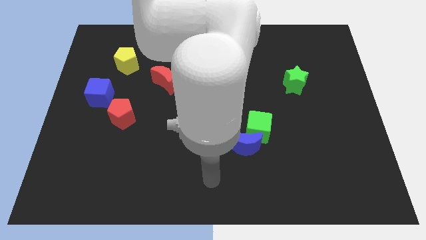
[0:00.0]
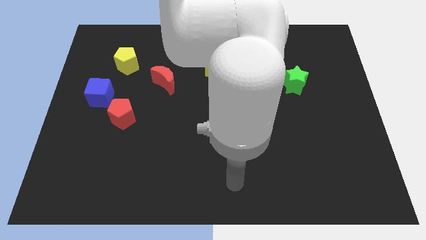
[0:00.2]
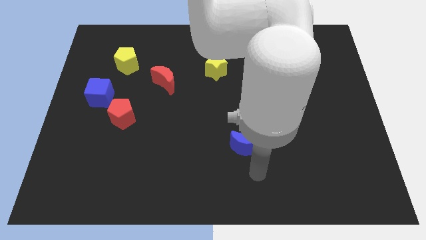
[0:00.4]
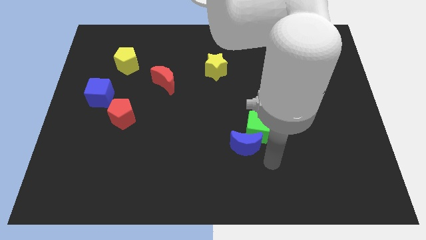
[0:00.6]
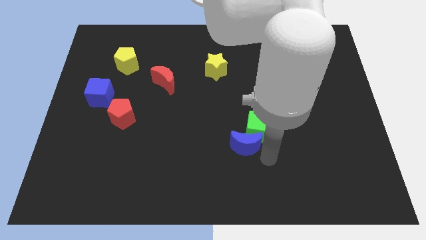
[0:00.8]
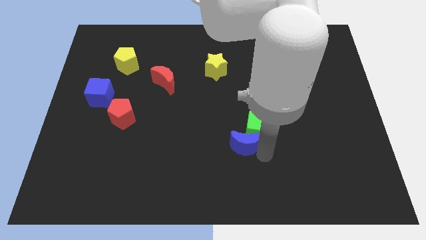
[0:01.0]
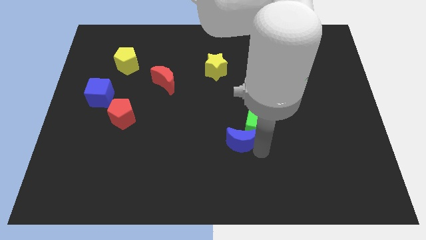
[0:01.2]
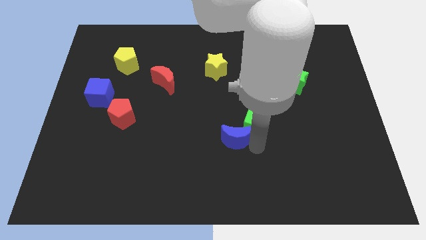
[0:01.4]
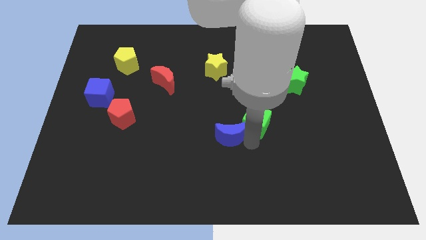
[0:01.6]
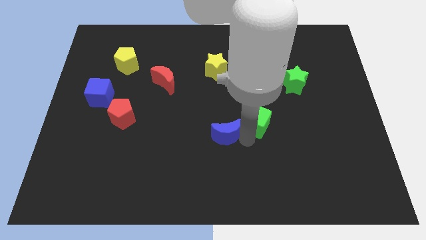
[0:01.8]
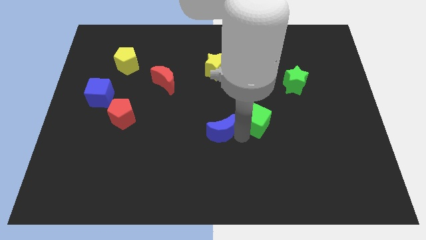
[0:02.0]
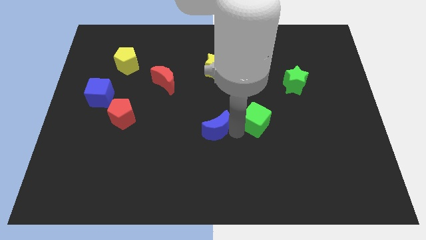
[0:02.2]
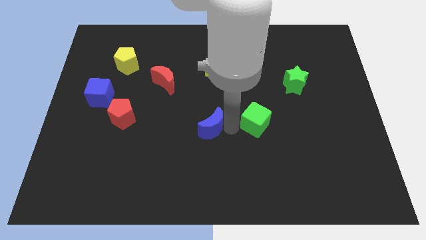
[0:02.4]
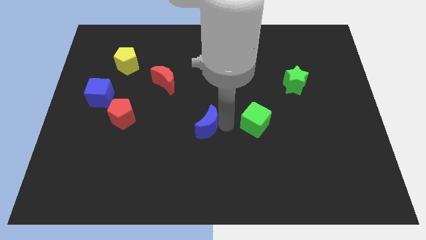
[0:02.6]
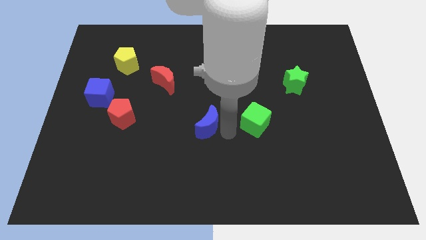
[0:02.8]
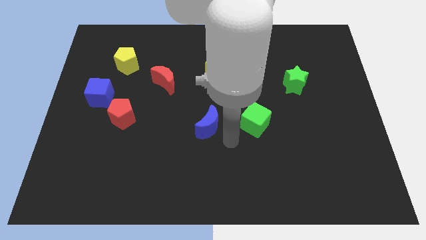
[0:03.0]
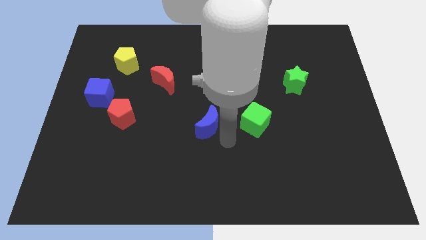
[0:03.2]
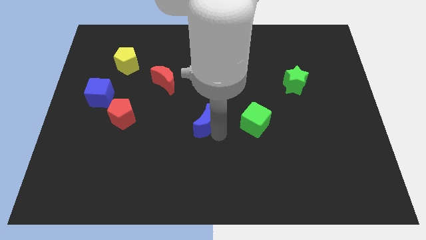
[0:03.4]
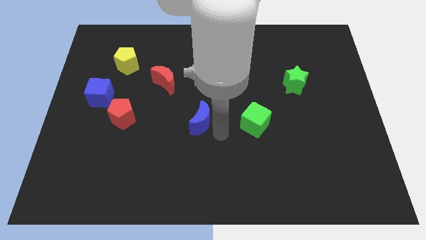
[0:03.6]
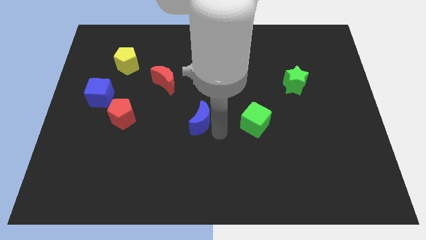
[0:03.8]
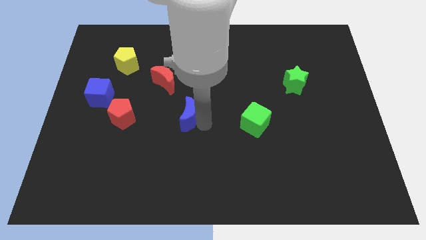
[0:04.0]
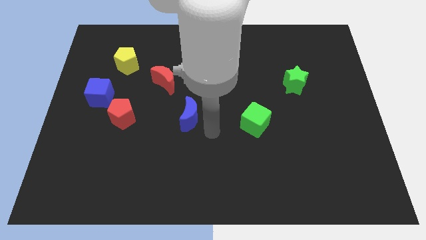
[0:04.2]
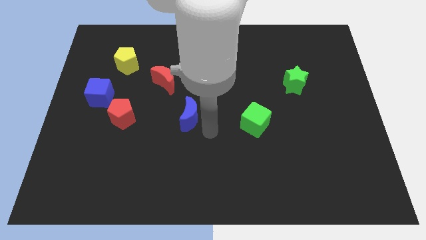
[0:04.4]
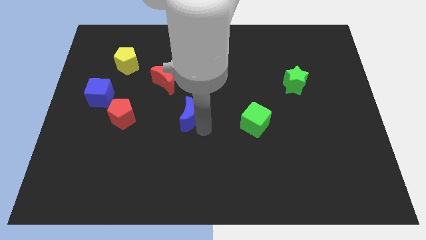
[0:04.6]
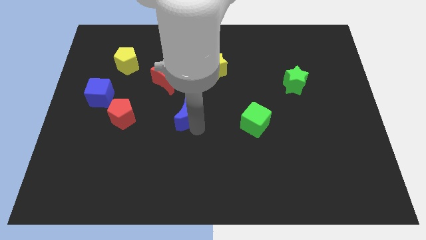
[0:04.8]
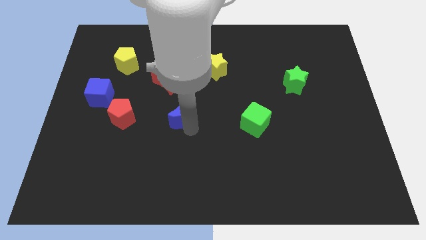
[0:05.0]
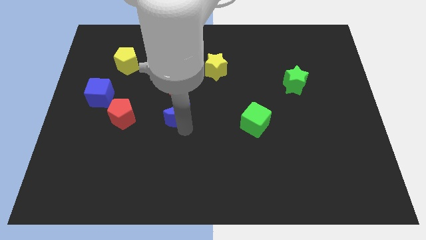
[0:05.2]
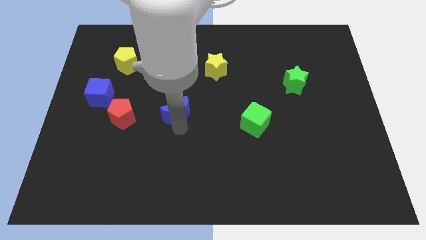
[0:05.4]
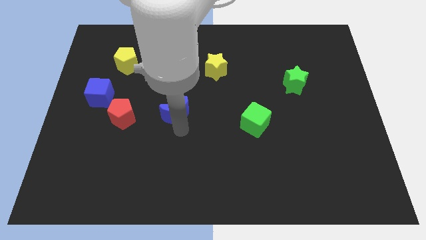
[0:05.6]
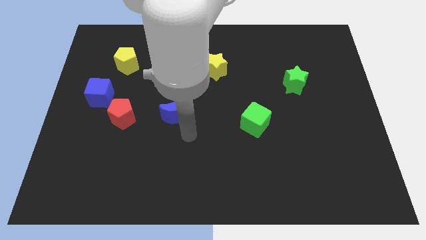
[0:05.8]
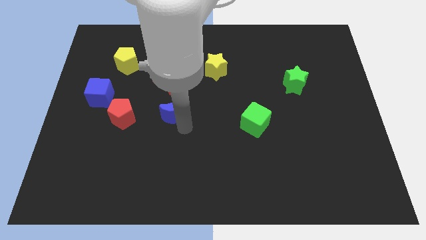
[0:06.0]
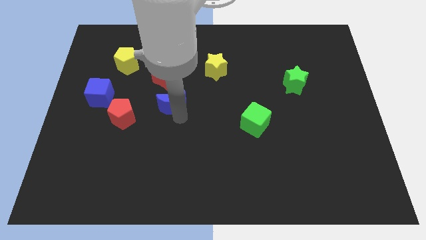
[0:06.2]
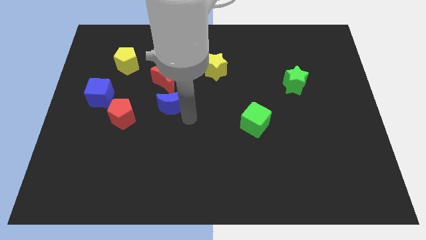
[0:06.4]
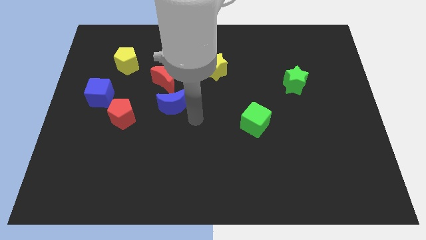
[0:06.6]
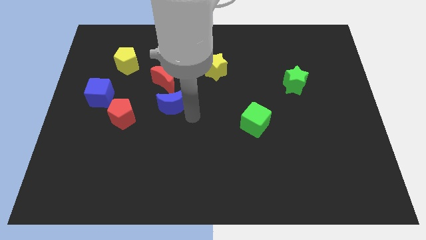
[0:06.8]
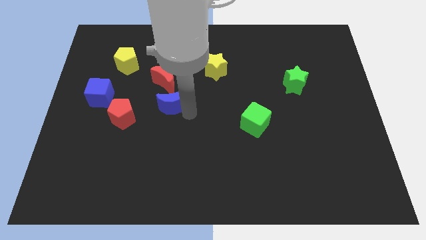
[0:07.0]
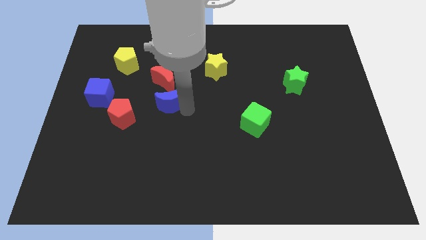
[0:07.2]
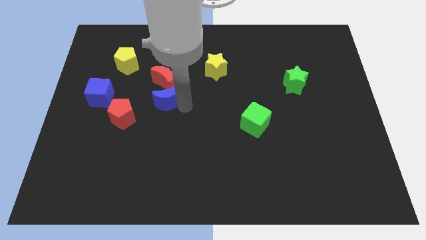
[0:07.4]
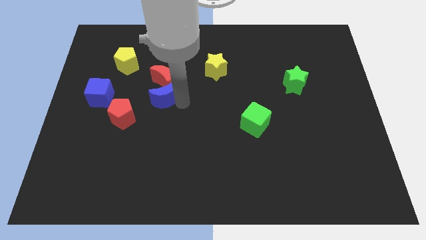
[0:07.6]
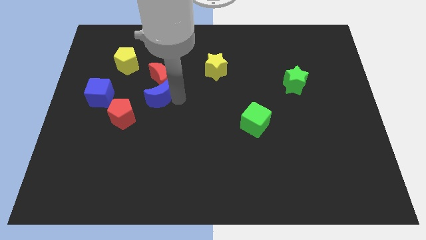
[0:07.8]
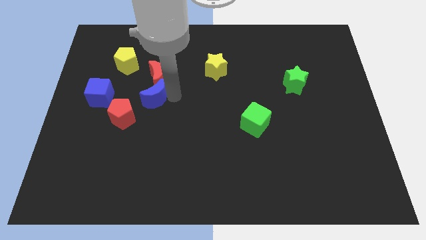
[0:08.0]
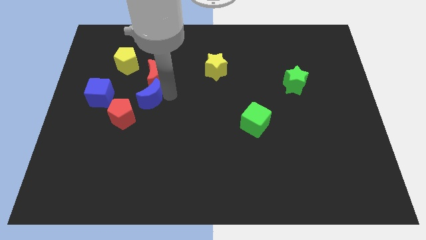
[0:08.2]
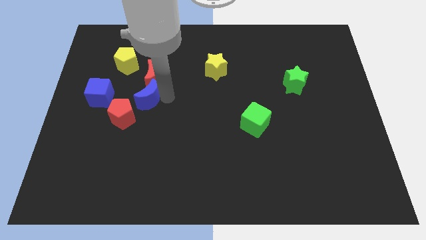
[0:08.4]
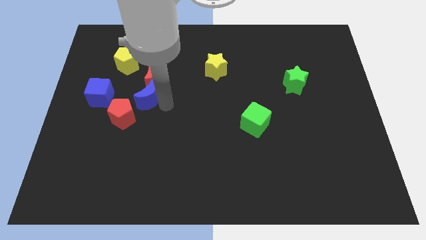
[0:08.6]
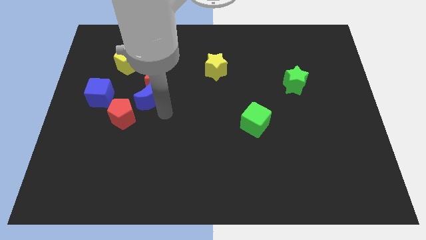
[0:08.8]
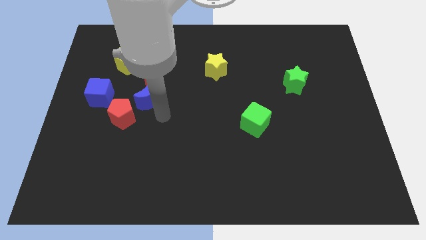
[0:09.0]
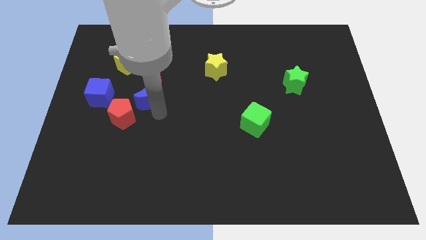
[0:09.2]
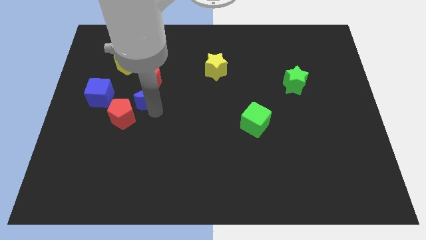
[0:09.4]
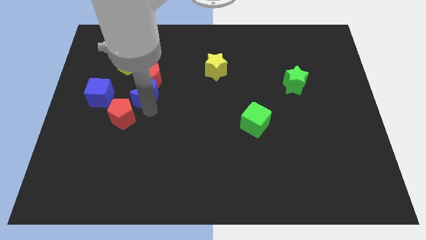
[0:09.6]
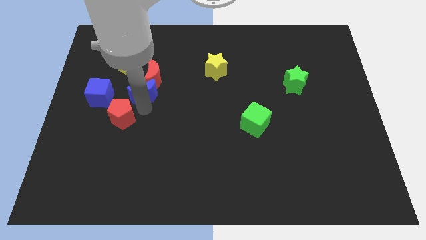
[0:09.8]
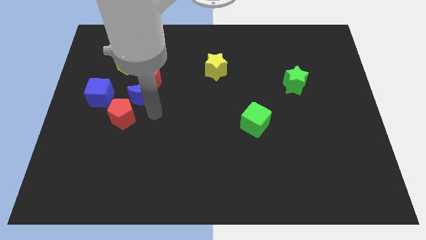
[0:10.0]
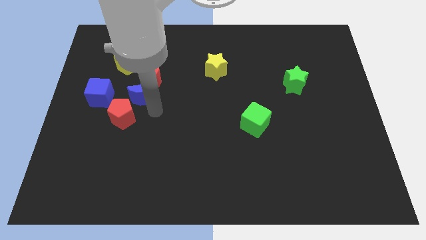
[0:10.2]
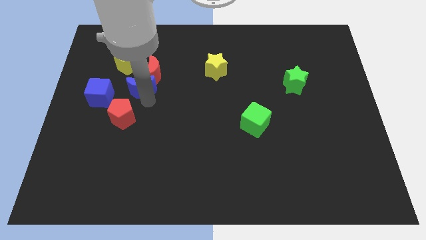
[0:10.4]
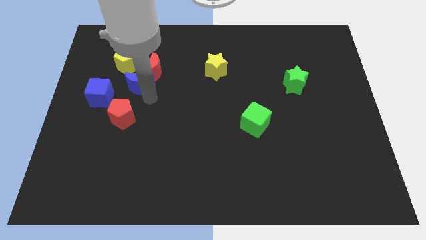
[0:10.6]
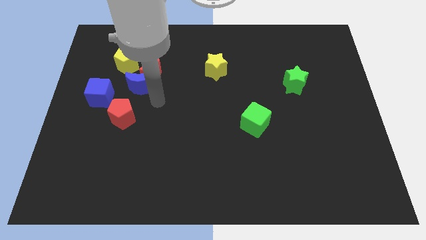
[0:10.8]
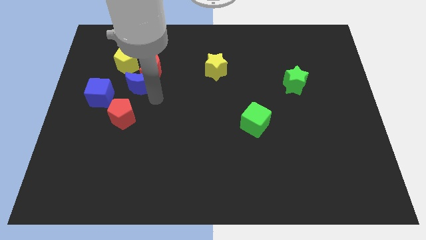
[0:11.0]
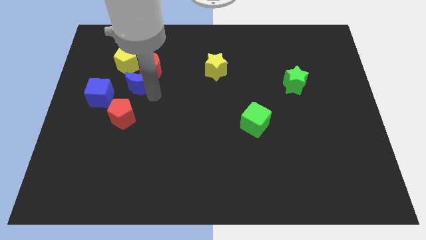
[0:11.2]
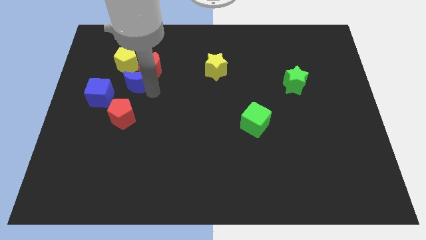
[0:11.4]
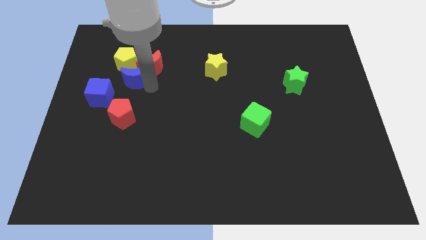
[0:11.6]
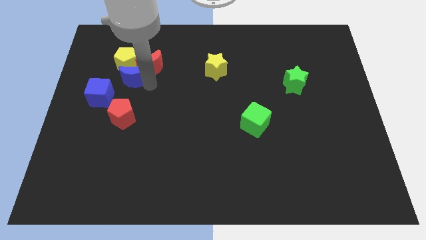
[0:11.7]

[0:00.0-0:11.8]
move the blue moon towards the yellow pentagon

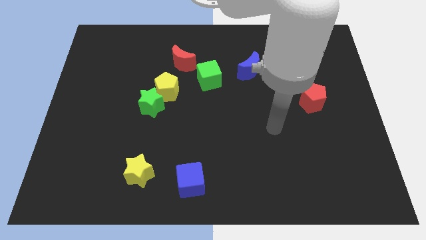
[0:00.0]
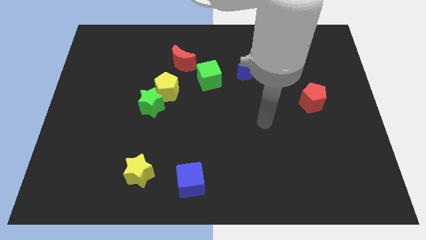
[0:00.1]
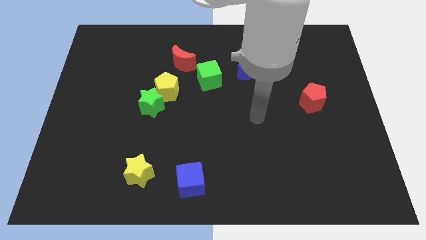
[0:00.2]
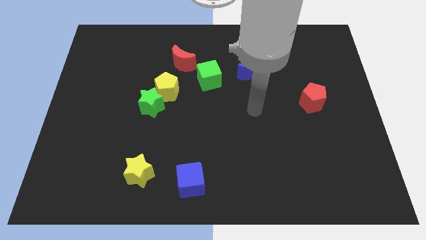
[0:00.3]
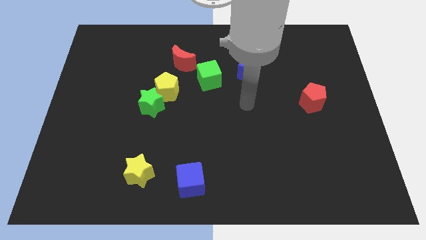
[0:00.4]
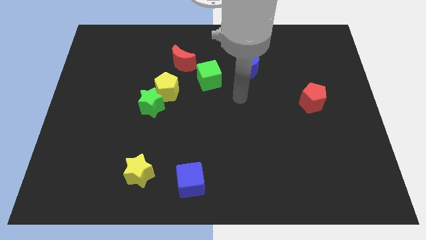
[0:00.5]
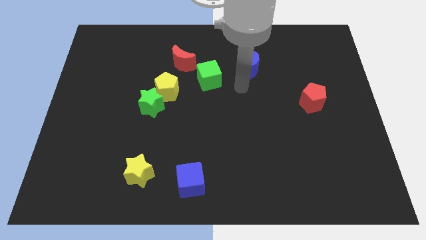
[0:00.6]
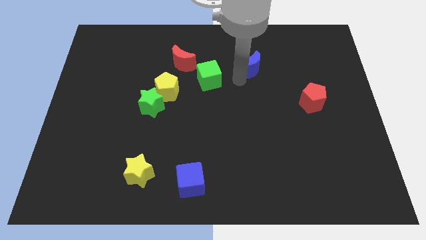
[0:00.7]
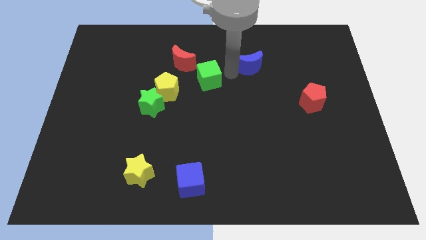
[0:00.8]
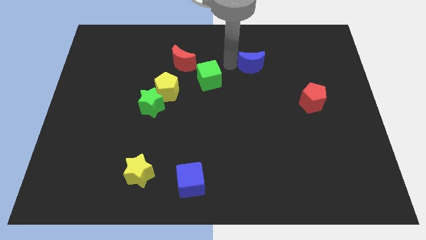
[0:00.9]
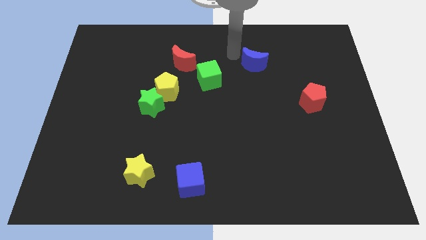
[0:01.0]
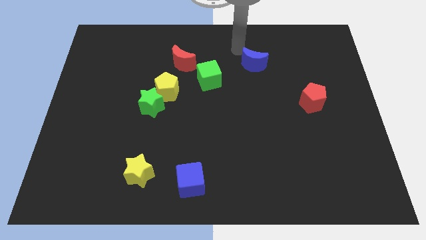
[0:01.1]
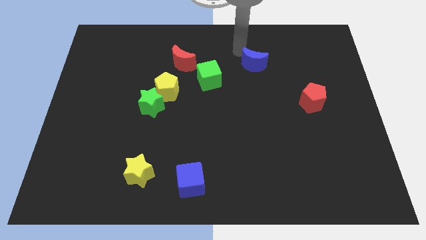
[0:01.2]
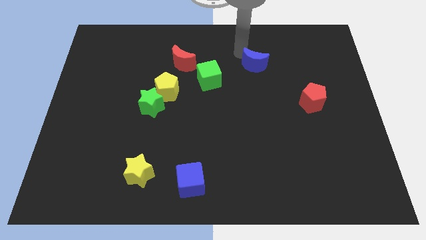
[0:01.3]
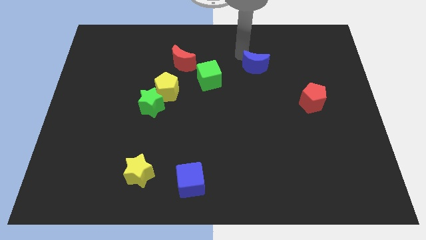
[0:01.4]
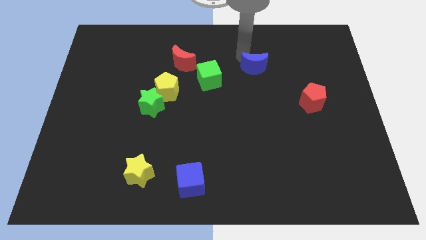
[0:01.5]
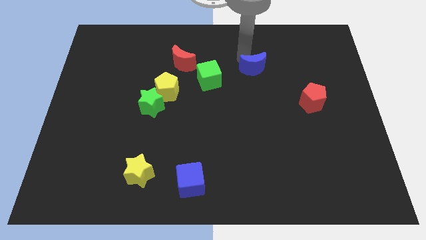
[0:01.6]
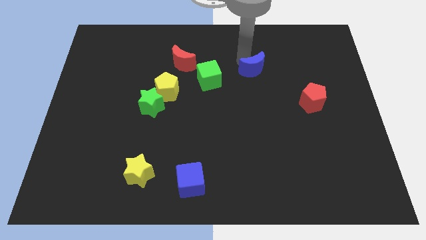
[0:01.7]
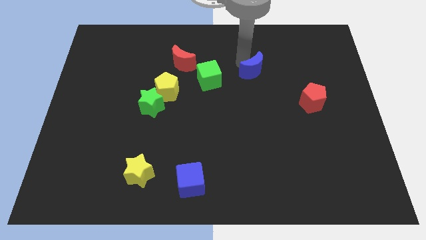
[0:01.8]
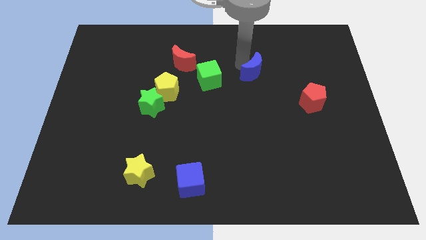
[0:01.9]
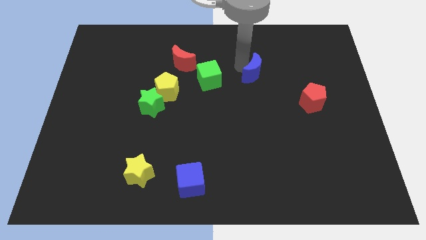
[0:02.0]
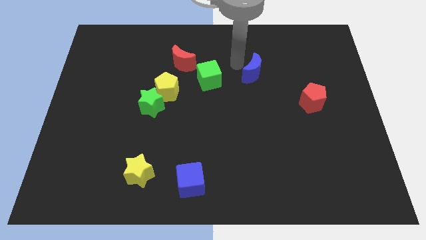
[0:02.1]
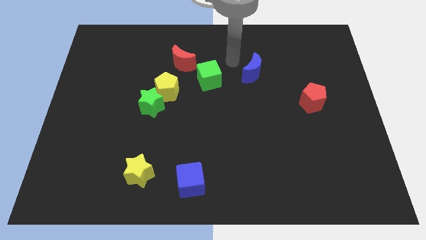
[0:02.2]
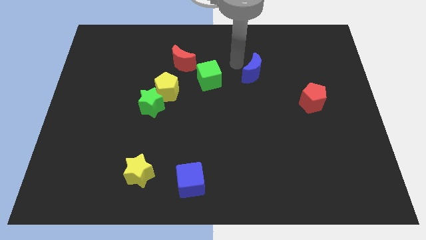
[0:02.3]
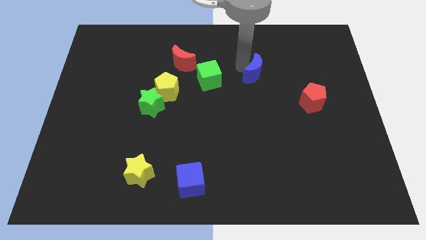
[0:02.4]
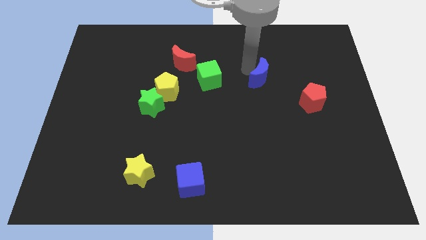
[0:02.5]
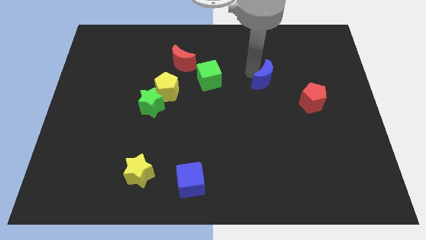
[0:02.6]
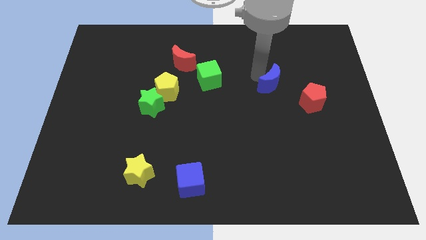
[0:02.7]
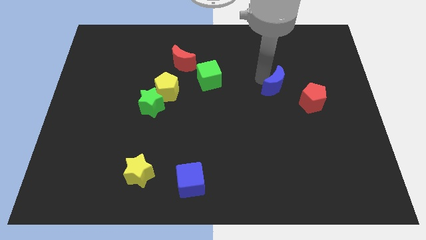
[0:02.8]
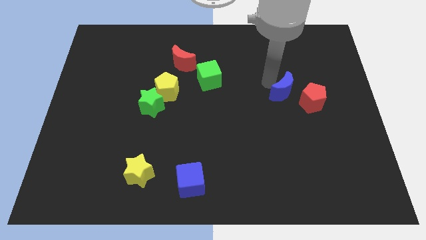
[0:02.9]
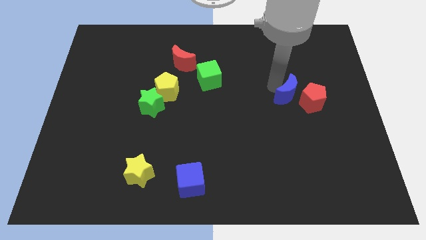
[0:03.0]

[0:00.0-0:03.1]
put the blue moon next to the red pentagon
